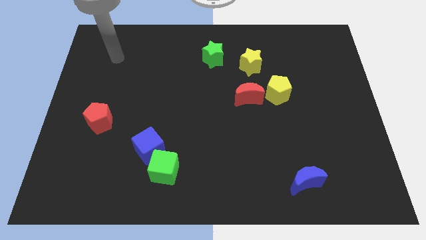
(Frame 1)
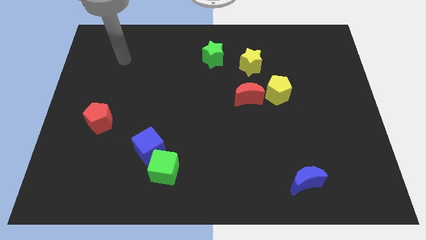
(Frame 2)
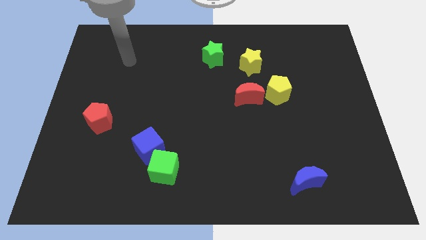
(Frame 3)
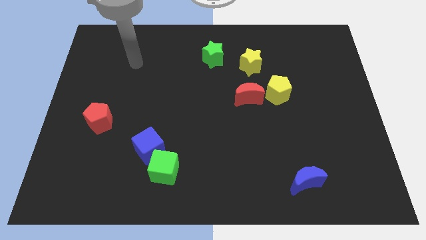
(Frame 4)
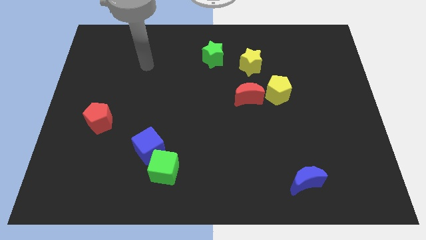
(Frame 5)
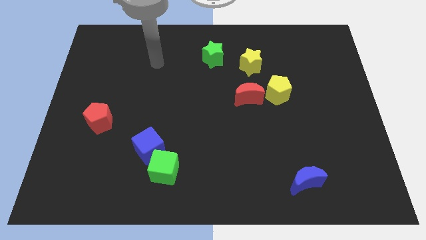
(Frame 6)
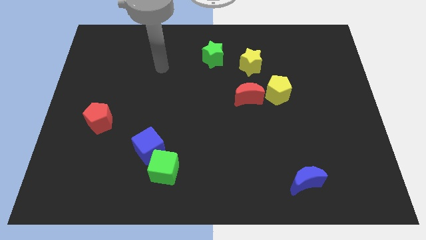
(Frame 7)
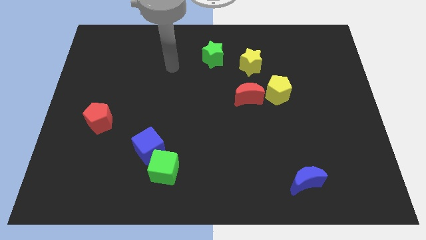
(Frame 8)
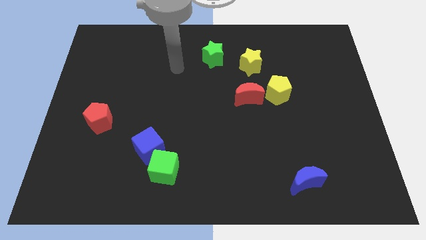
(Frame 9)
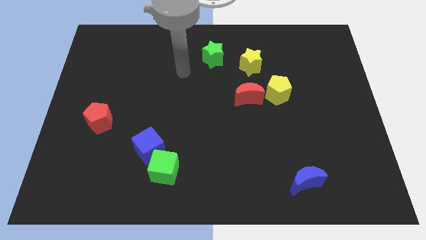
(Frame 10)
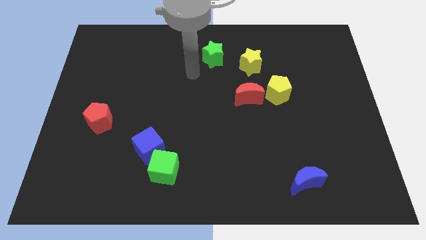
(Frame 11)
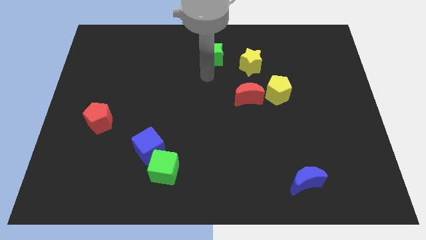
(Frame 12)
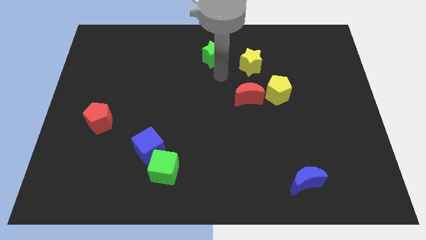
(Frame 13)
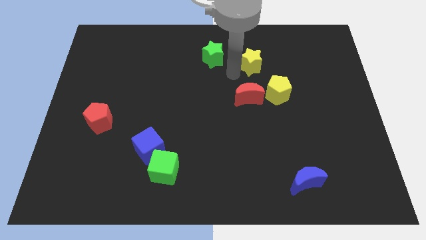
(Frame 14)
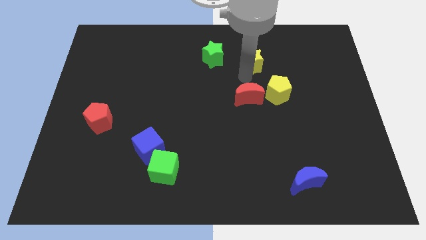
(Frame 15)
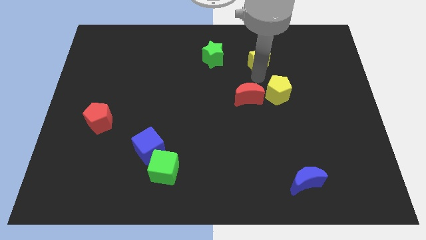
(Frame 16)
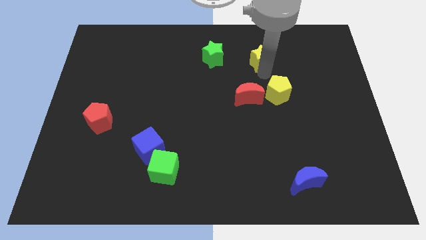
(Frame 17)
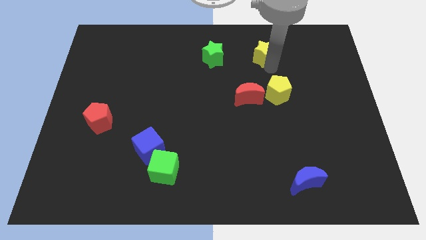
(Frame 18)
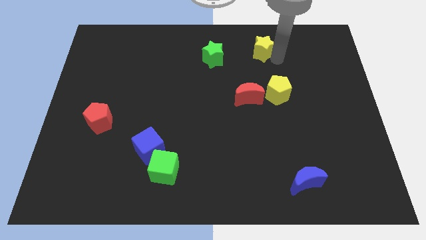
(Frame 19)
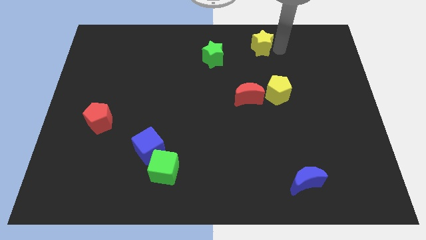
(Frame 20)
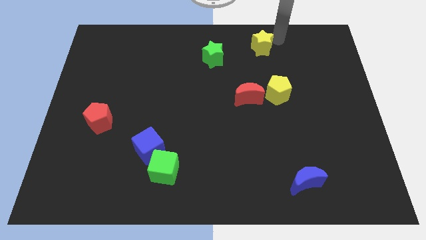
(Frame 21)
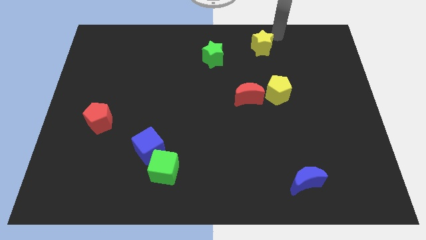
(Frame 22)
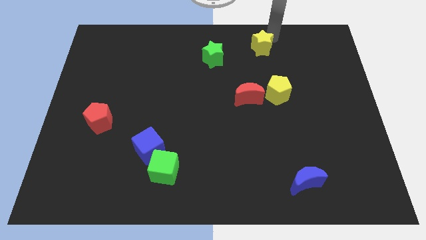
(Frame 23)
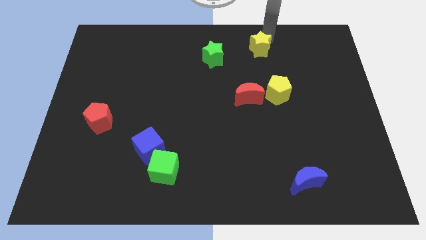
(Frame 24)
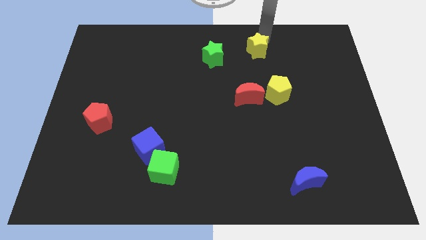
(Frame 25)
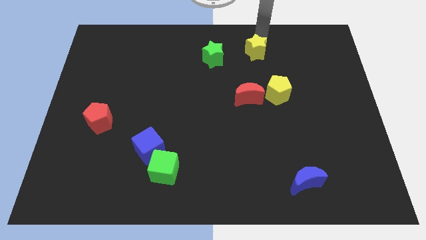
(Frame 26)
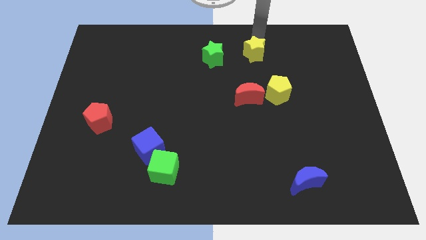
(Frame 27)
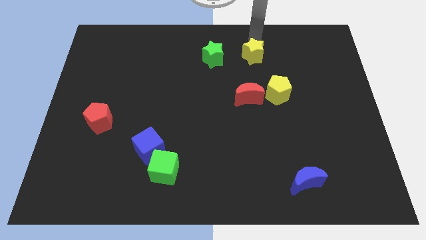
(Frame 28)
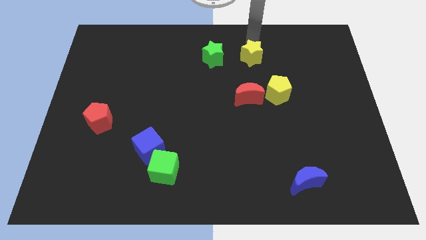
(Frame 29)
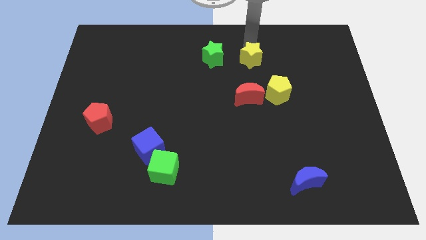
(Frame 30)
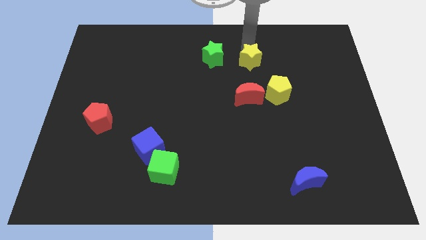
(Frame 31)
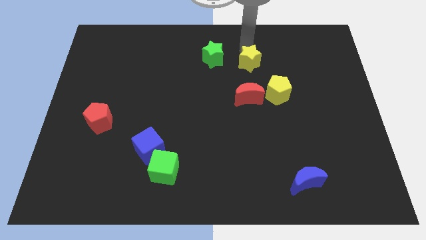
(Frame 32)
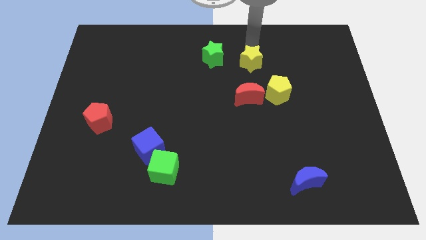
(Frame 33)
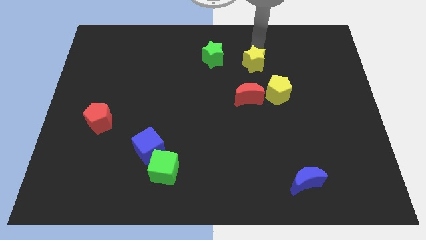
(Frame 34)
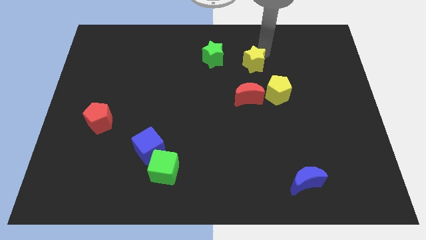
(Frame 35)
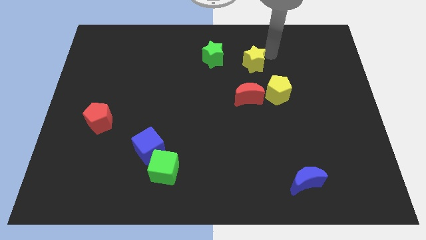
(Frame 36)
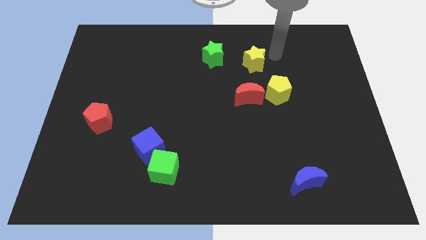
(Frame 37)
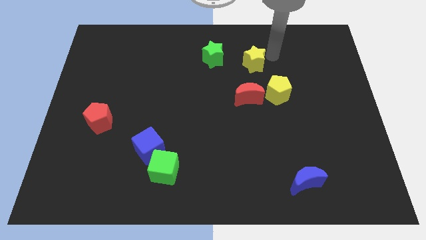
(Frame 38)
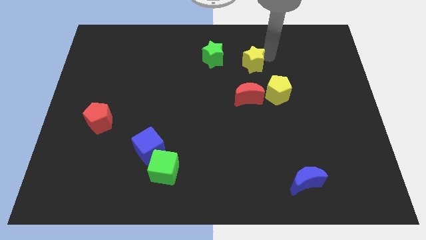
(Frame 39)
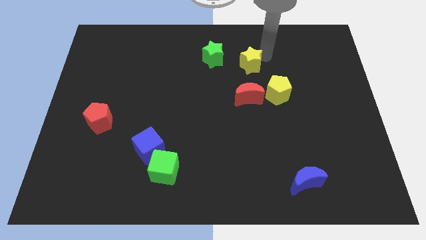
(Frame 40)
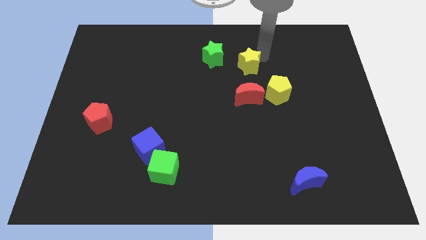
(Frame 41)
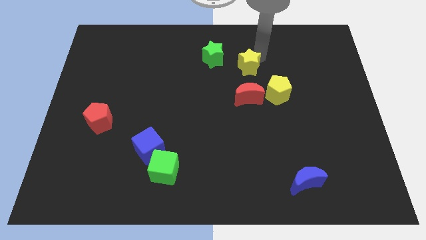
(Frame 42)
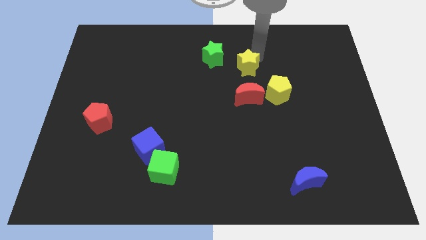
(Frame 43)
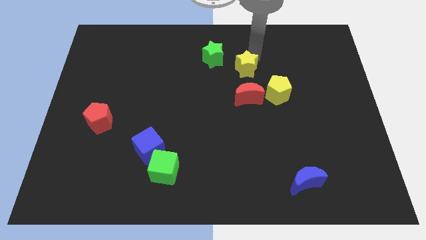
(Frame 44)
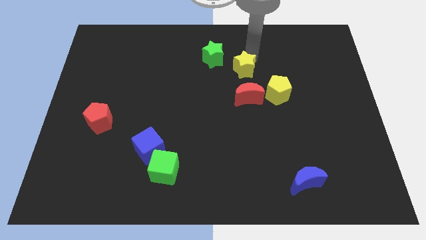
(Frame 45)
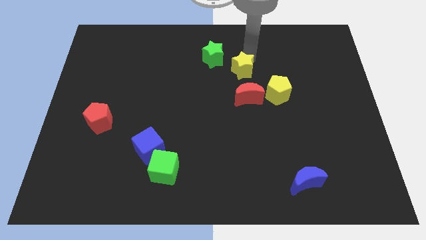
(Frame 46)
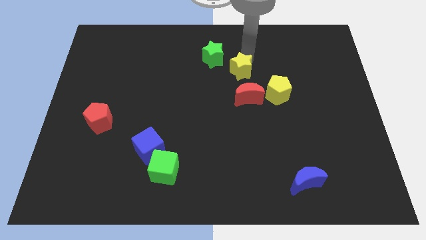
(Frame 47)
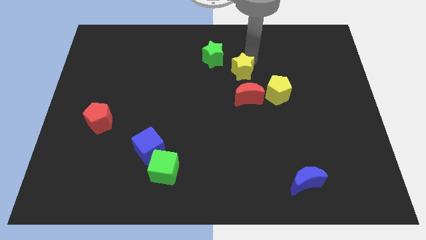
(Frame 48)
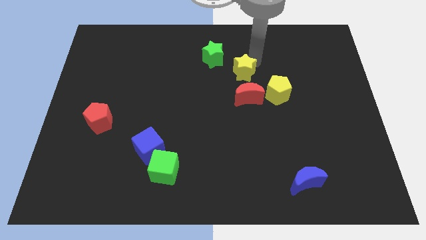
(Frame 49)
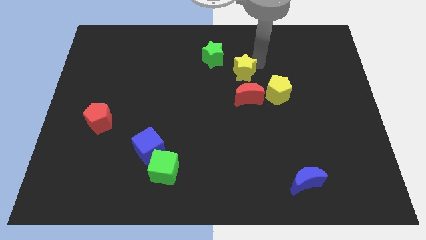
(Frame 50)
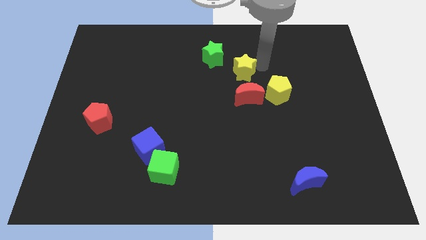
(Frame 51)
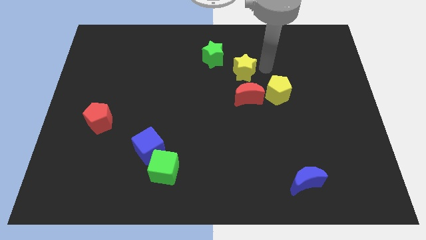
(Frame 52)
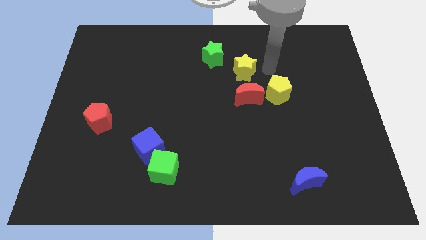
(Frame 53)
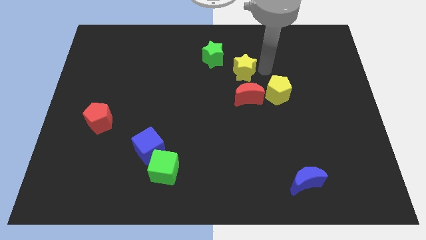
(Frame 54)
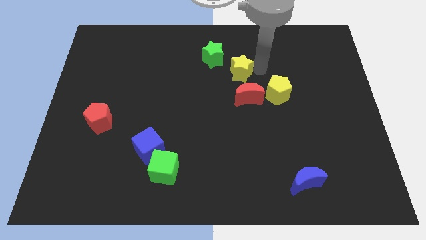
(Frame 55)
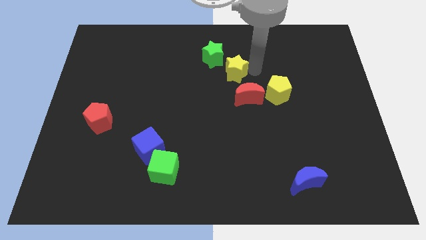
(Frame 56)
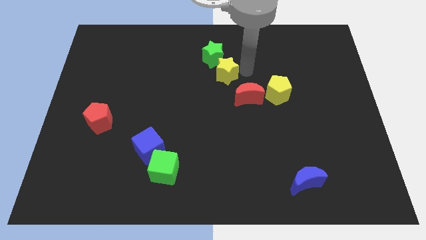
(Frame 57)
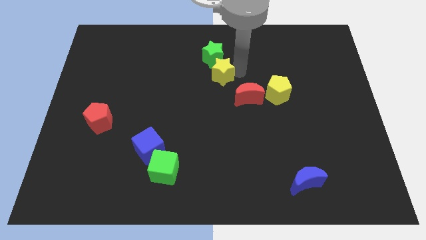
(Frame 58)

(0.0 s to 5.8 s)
move the yellow star left a bit

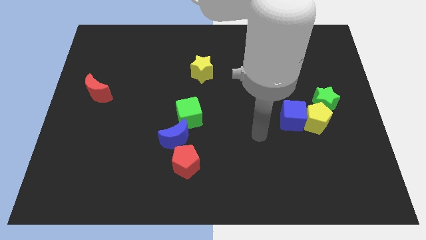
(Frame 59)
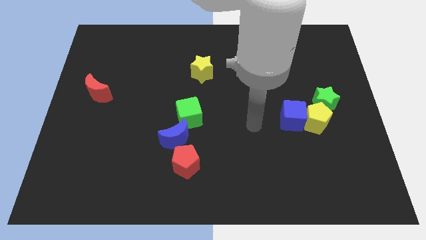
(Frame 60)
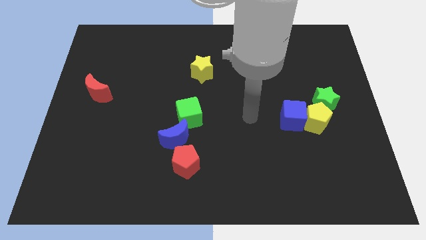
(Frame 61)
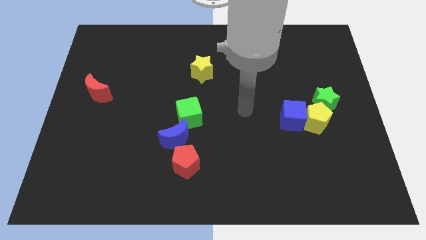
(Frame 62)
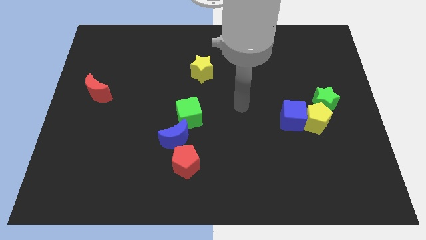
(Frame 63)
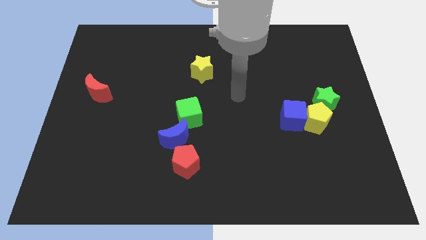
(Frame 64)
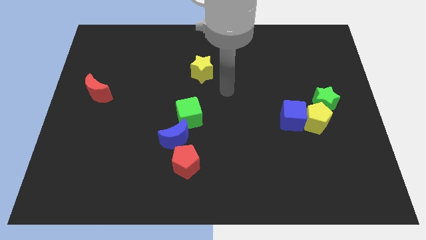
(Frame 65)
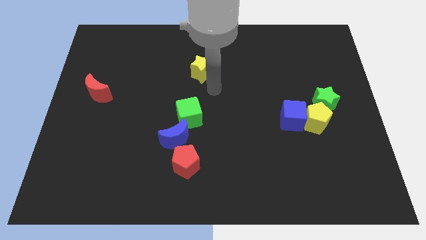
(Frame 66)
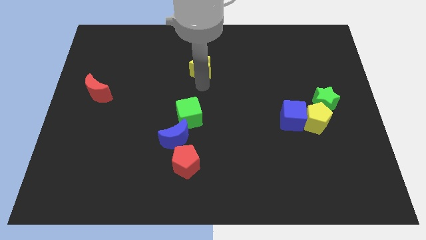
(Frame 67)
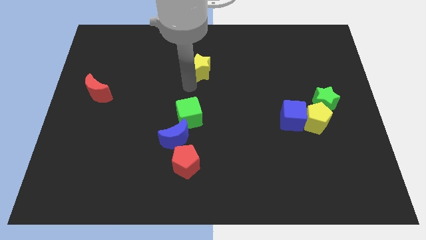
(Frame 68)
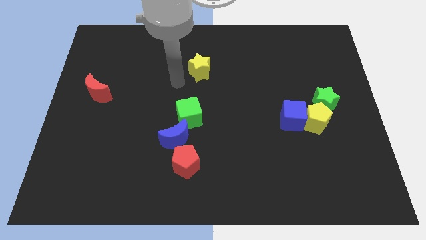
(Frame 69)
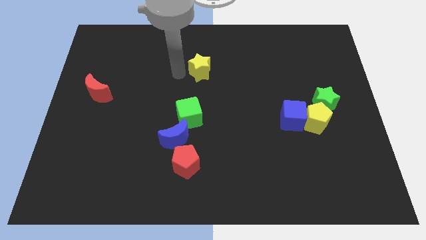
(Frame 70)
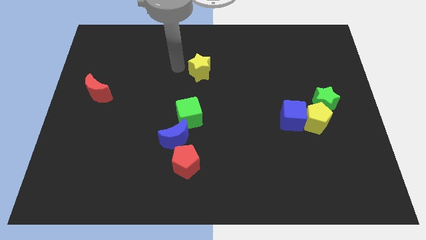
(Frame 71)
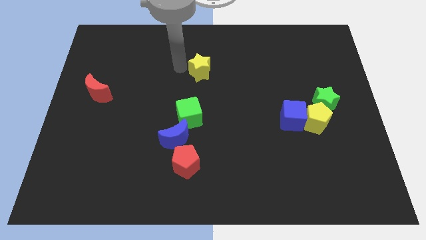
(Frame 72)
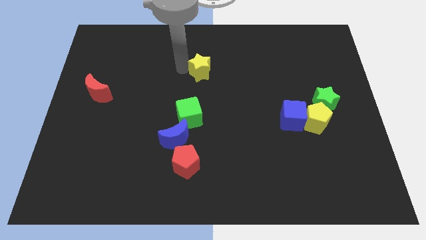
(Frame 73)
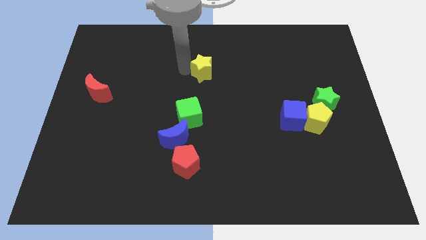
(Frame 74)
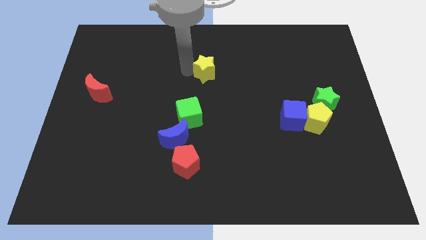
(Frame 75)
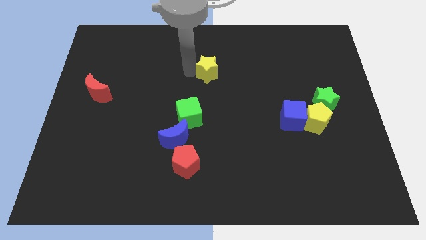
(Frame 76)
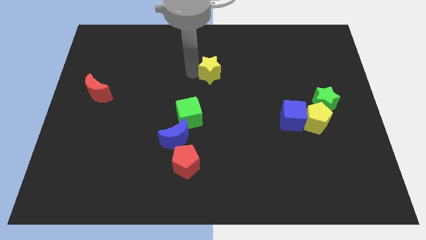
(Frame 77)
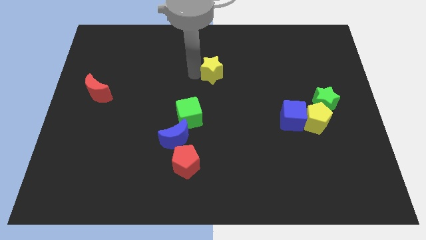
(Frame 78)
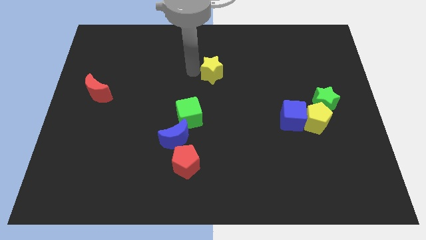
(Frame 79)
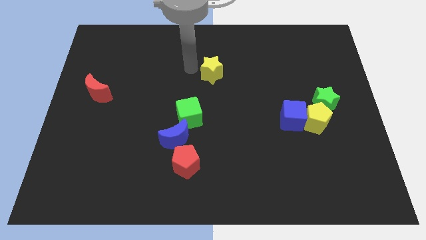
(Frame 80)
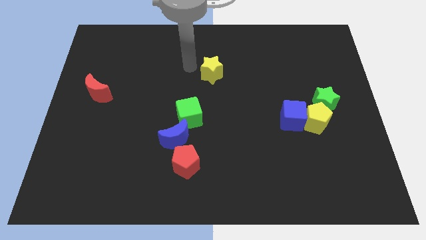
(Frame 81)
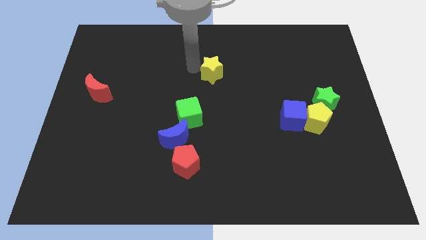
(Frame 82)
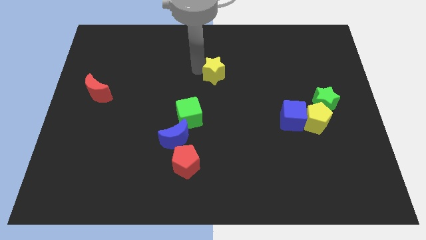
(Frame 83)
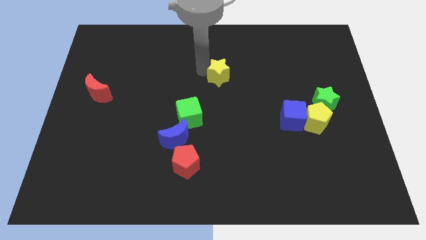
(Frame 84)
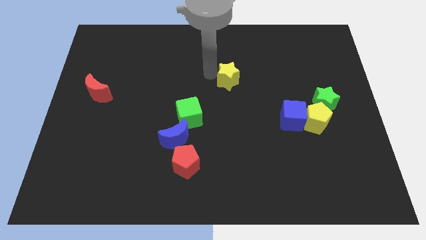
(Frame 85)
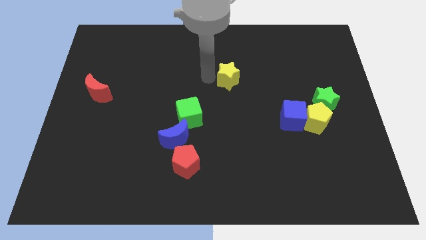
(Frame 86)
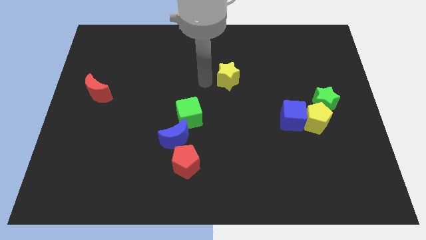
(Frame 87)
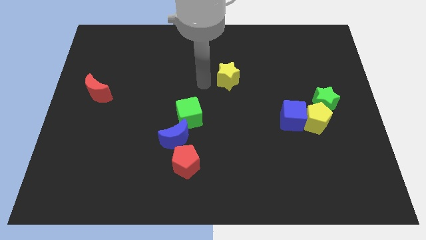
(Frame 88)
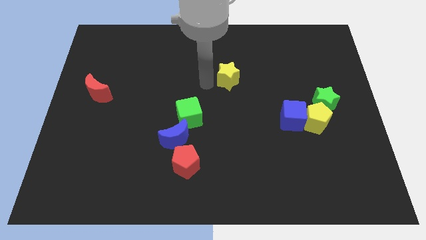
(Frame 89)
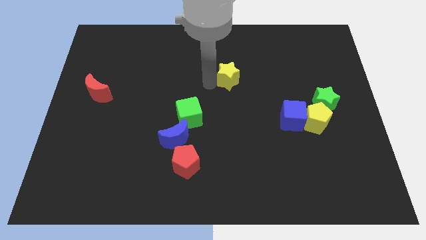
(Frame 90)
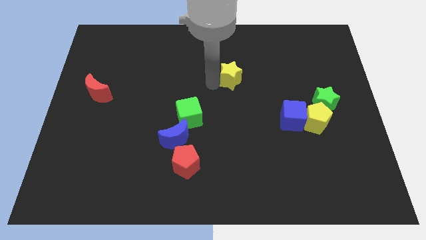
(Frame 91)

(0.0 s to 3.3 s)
slightly move the yellow star right
